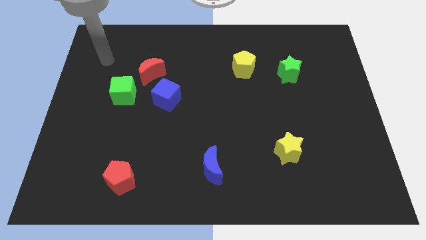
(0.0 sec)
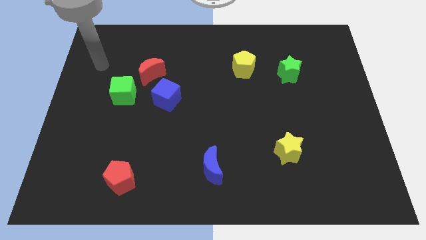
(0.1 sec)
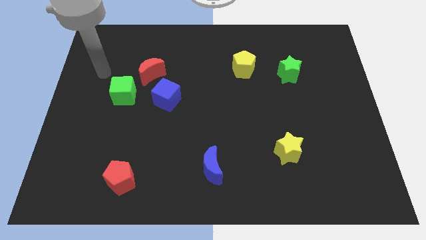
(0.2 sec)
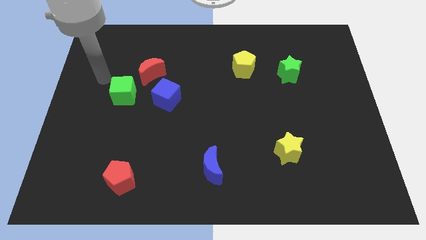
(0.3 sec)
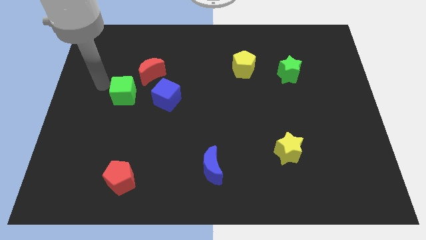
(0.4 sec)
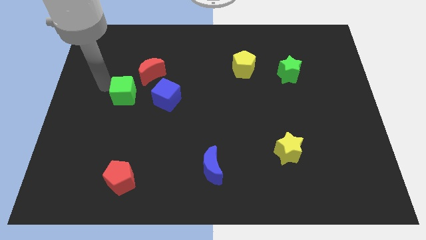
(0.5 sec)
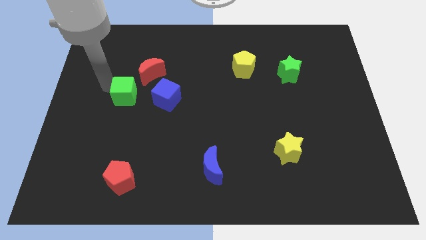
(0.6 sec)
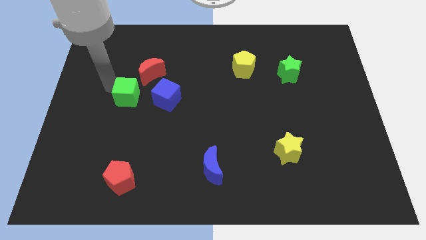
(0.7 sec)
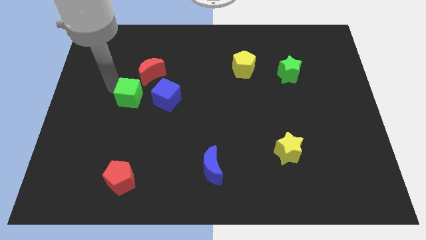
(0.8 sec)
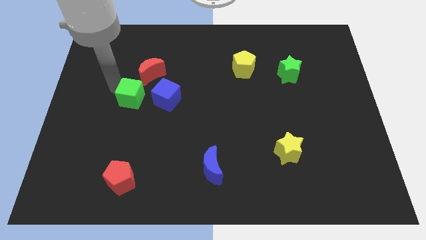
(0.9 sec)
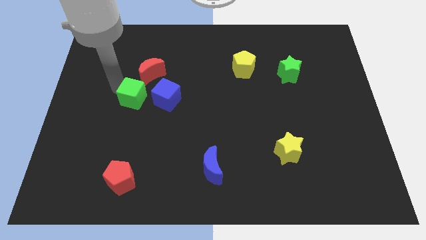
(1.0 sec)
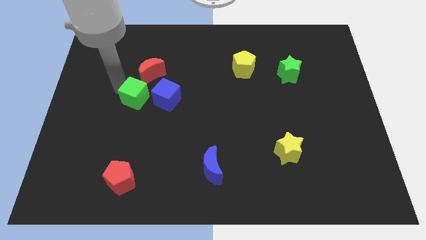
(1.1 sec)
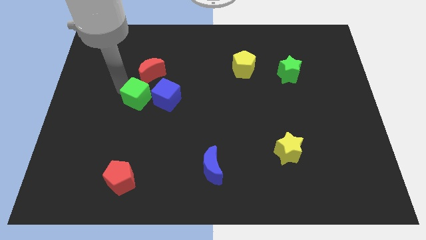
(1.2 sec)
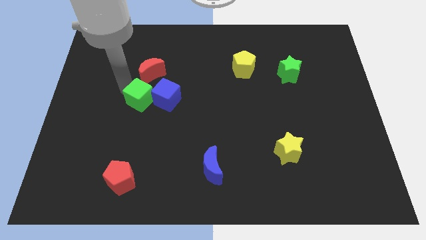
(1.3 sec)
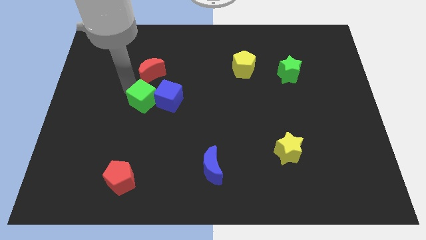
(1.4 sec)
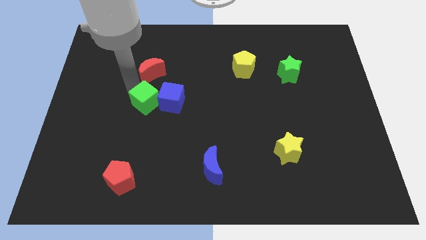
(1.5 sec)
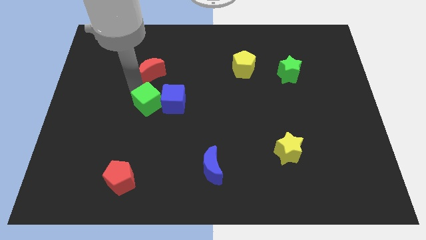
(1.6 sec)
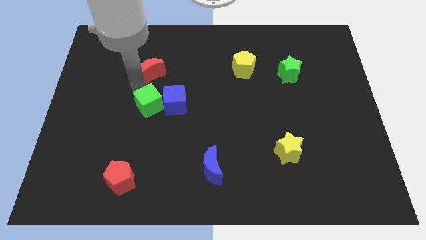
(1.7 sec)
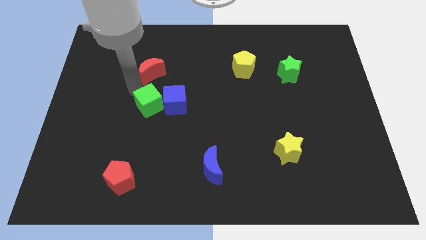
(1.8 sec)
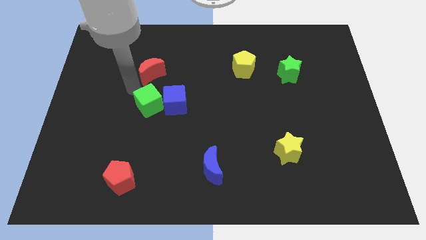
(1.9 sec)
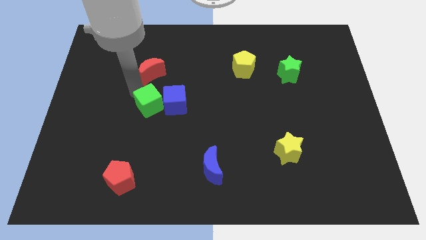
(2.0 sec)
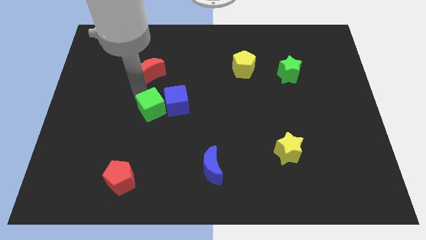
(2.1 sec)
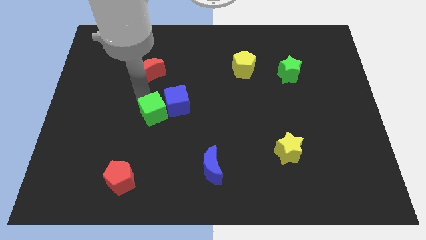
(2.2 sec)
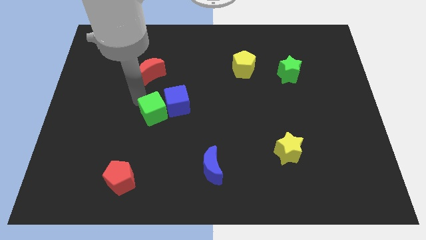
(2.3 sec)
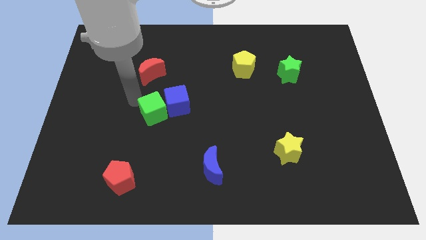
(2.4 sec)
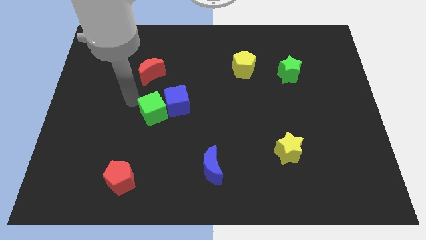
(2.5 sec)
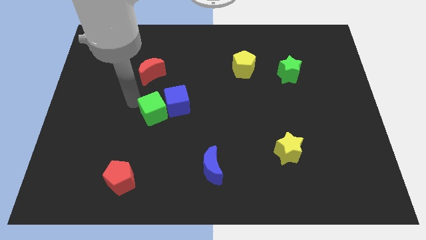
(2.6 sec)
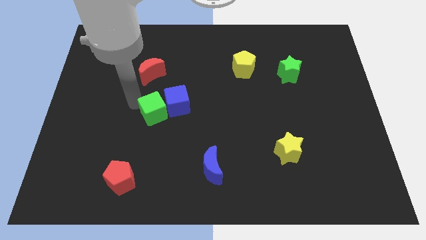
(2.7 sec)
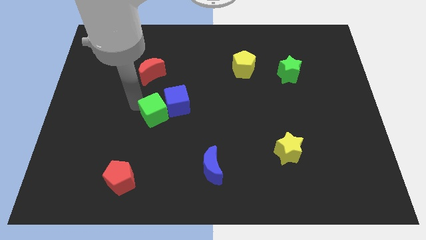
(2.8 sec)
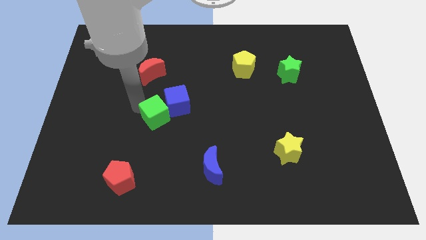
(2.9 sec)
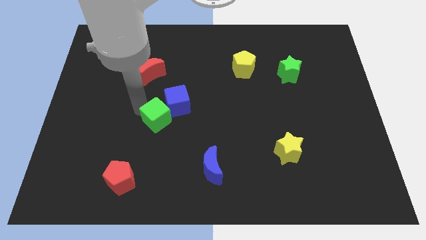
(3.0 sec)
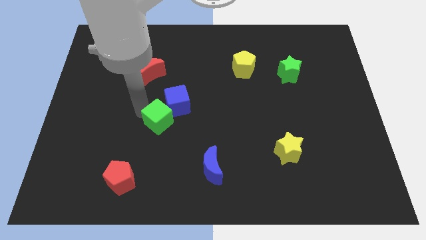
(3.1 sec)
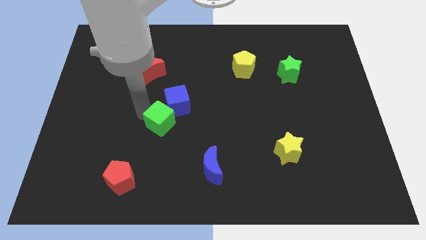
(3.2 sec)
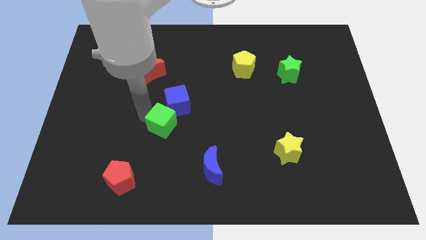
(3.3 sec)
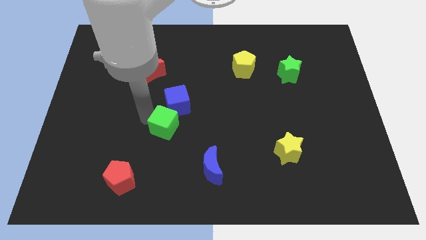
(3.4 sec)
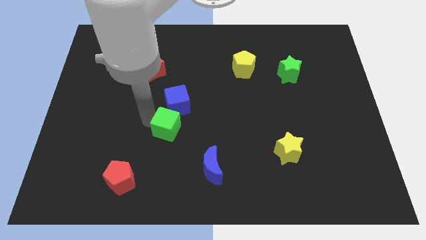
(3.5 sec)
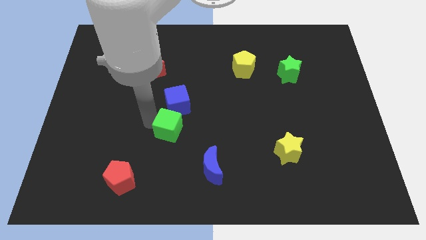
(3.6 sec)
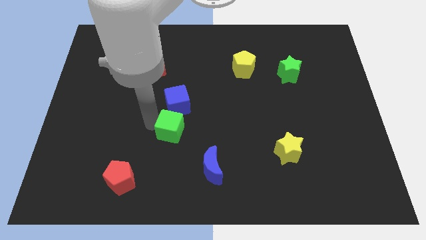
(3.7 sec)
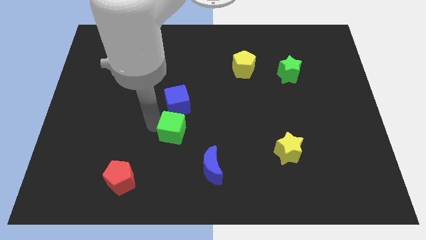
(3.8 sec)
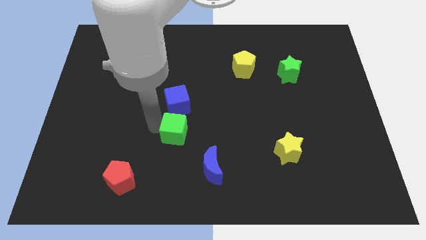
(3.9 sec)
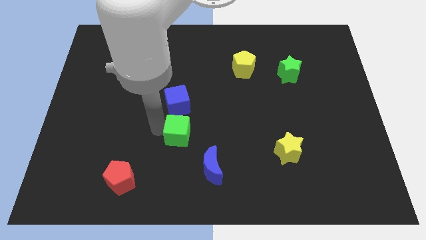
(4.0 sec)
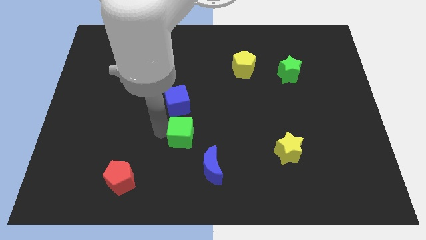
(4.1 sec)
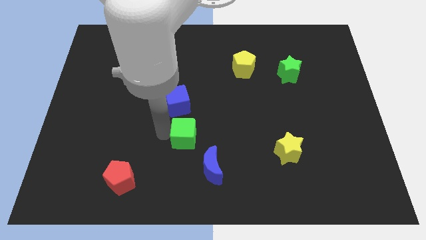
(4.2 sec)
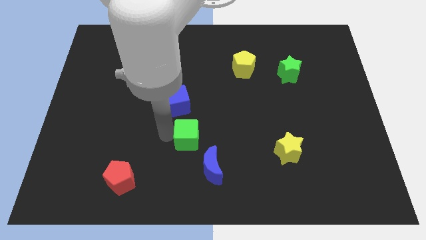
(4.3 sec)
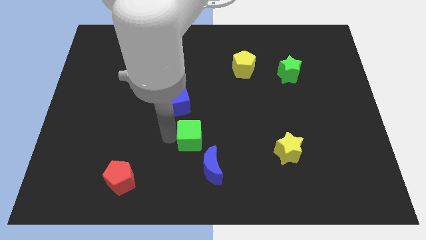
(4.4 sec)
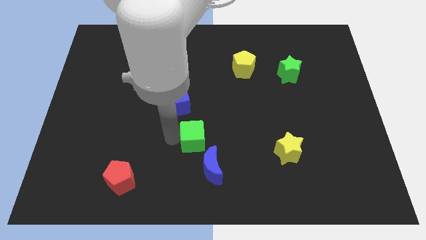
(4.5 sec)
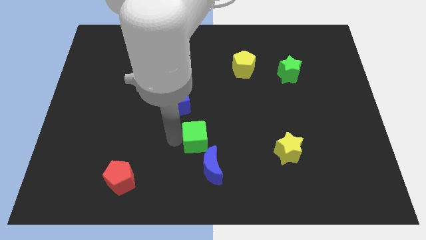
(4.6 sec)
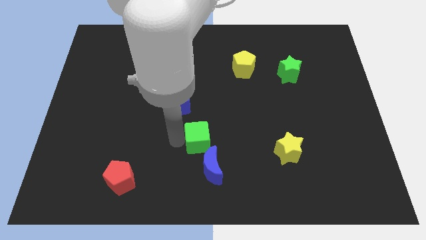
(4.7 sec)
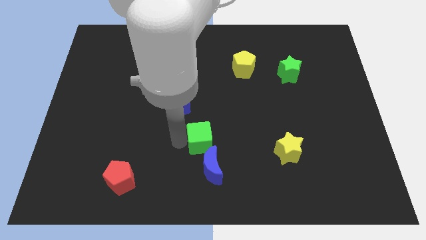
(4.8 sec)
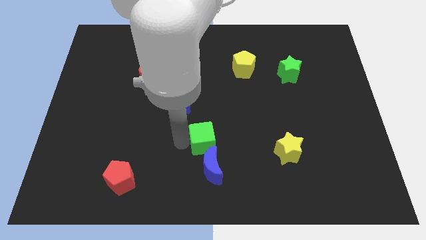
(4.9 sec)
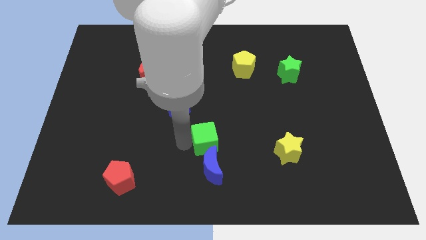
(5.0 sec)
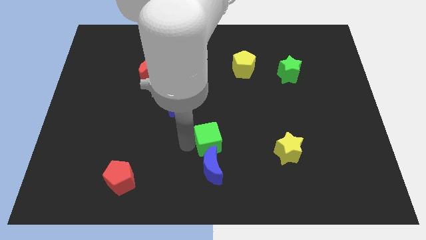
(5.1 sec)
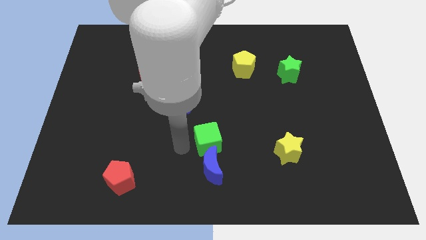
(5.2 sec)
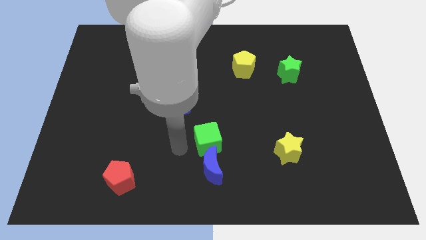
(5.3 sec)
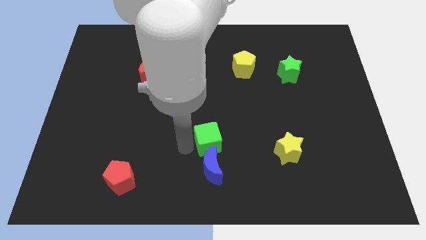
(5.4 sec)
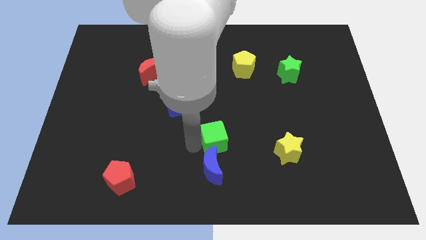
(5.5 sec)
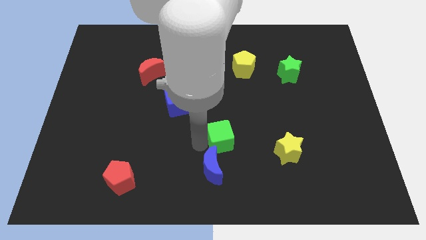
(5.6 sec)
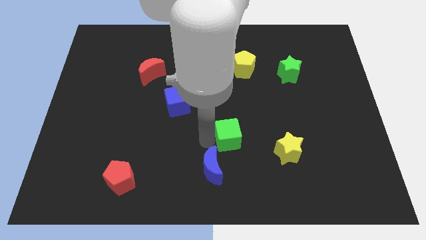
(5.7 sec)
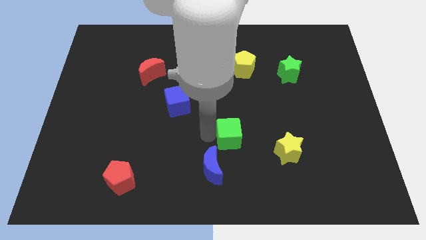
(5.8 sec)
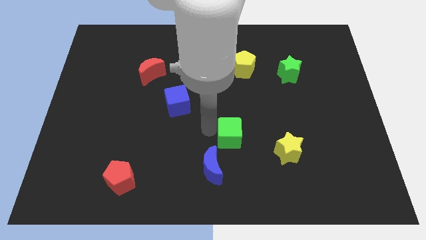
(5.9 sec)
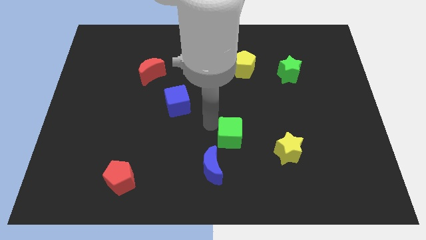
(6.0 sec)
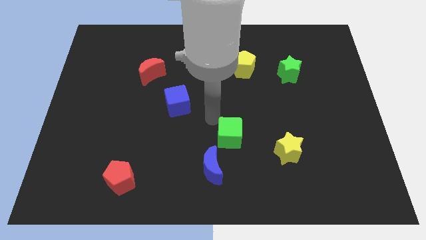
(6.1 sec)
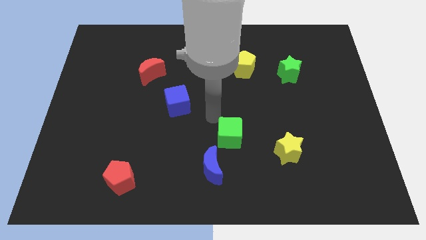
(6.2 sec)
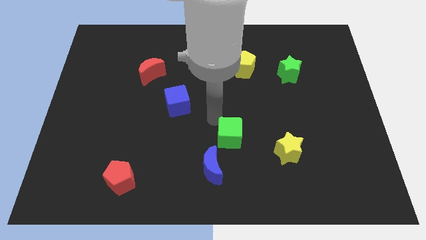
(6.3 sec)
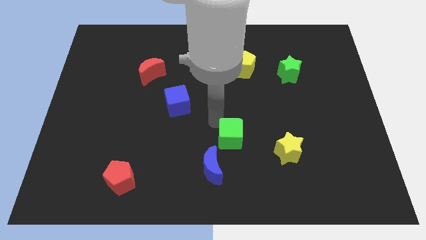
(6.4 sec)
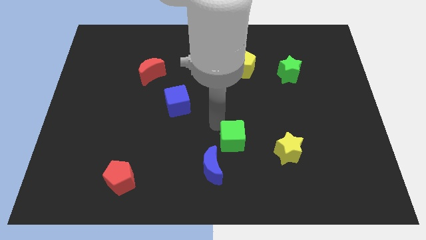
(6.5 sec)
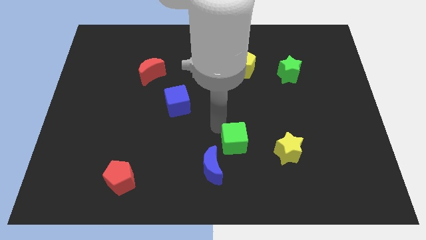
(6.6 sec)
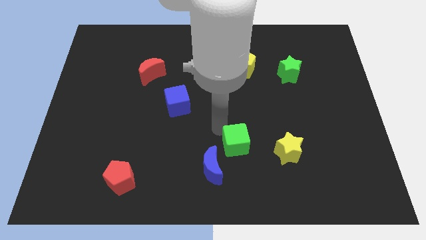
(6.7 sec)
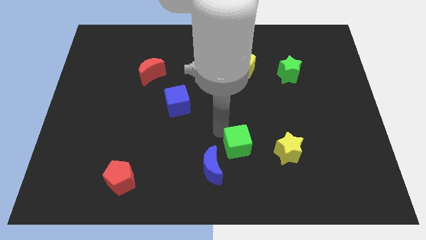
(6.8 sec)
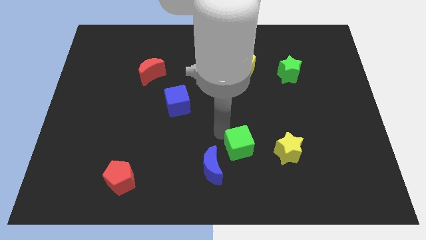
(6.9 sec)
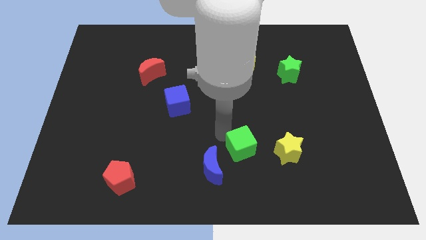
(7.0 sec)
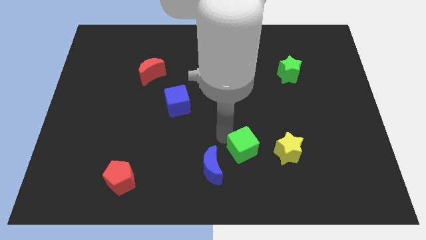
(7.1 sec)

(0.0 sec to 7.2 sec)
put the green cube just right of the blue moon

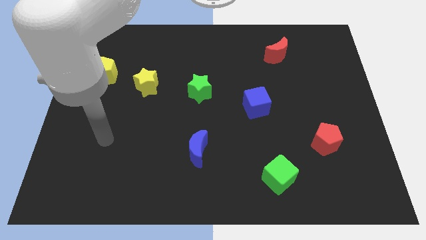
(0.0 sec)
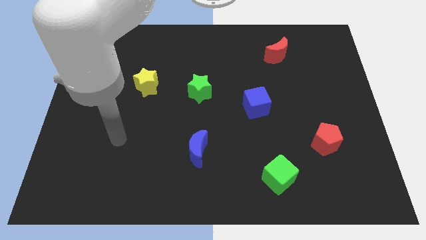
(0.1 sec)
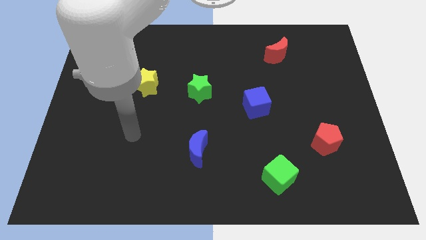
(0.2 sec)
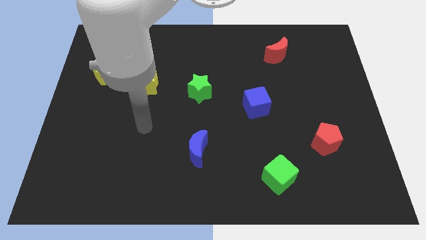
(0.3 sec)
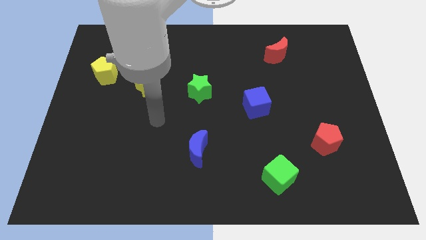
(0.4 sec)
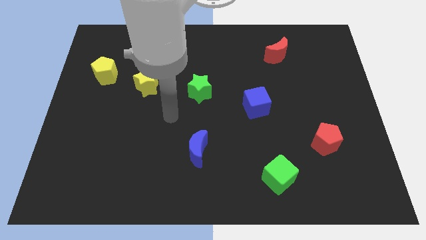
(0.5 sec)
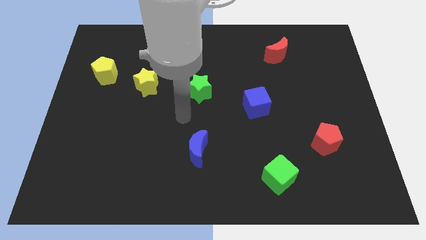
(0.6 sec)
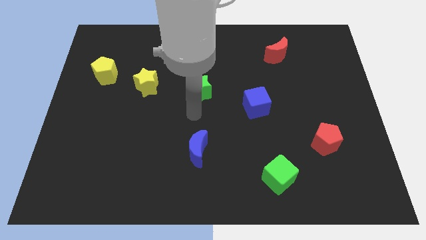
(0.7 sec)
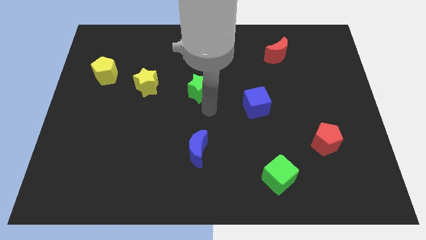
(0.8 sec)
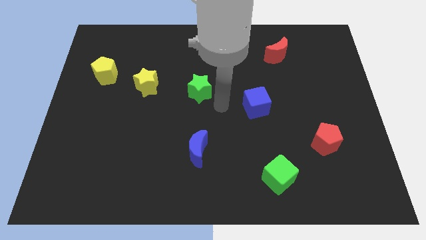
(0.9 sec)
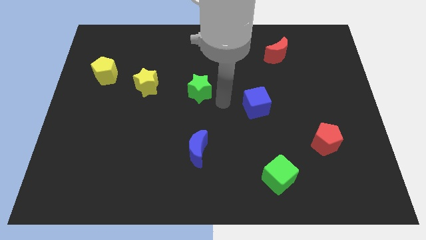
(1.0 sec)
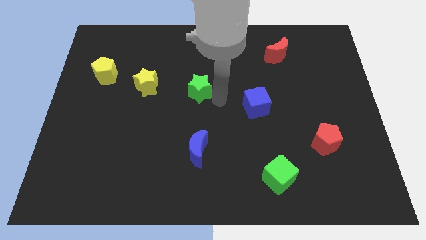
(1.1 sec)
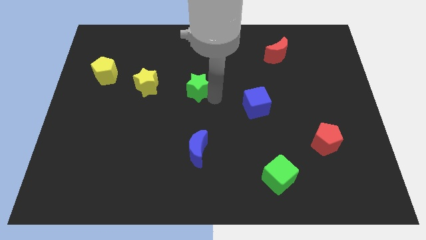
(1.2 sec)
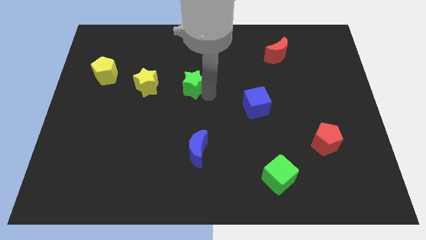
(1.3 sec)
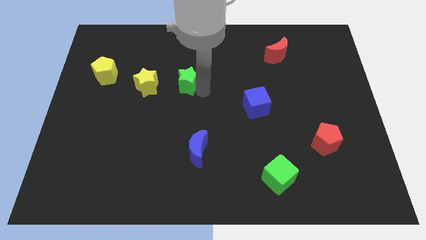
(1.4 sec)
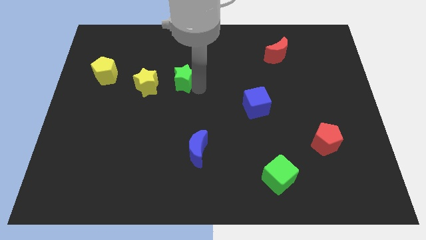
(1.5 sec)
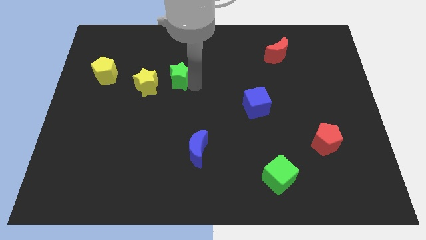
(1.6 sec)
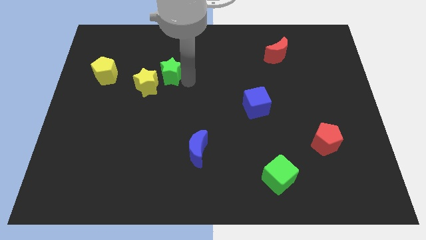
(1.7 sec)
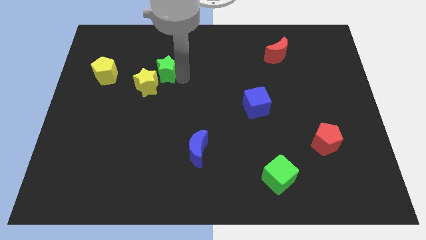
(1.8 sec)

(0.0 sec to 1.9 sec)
push the green star to the right of the yellow pentagon
